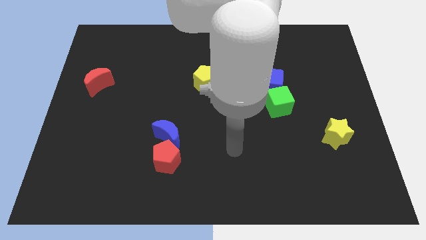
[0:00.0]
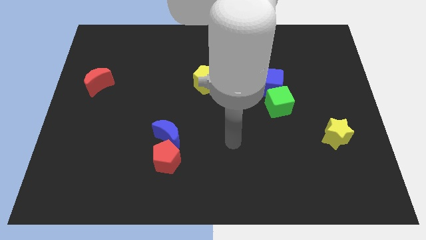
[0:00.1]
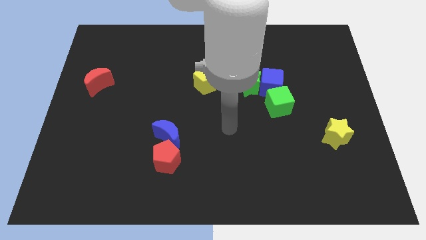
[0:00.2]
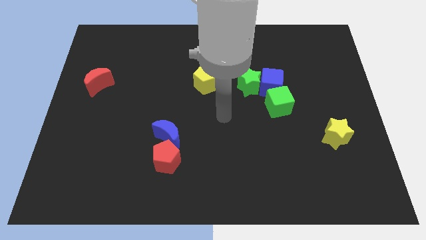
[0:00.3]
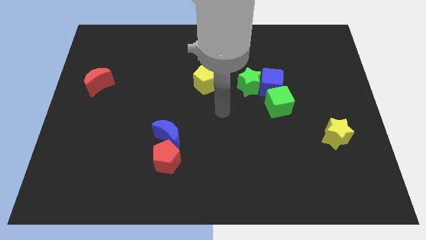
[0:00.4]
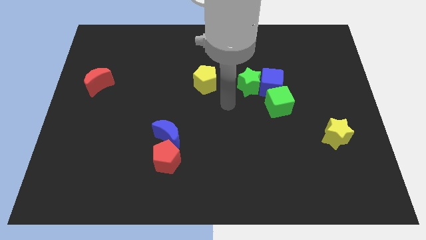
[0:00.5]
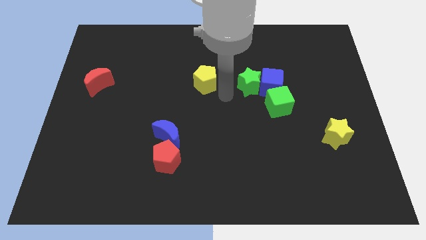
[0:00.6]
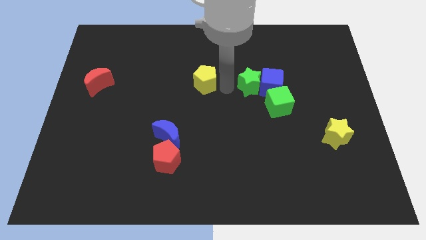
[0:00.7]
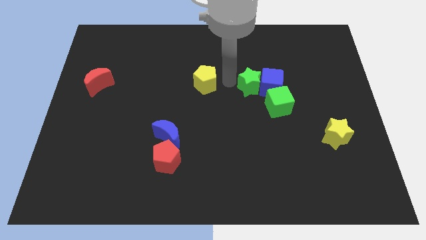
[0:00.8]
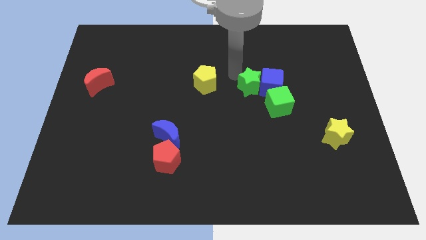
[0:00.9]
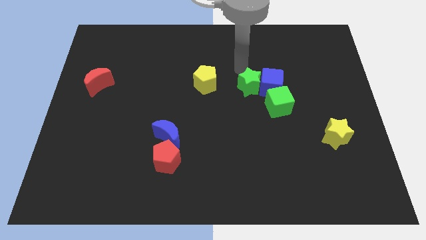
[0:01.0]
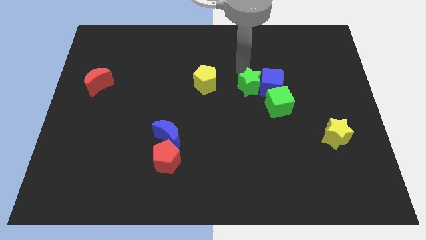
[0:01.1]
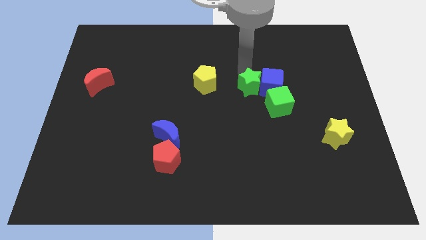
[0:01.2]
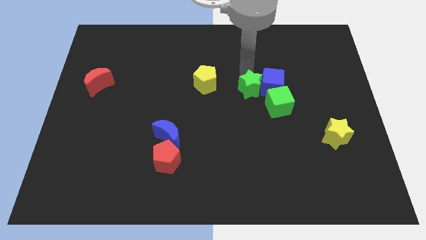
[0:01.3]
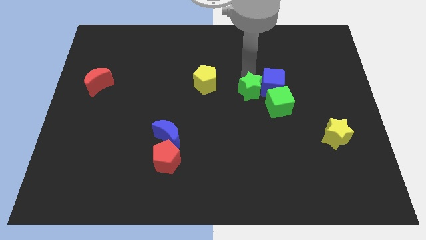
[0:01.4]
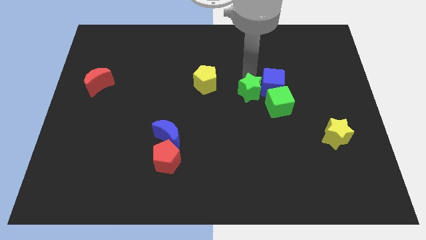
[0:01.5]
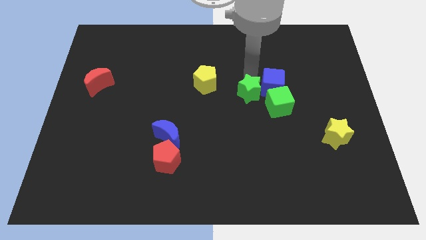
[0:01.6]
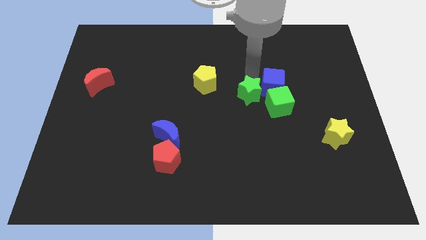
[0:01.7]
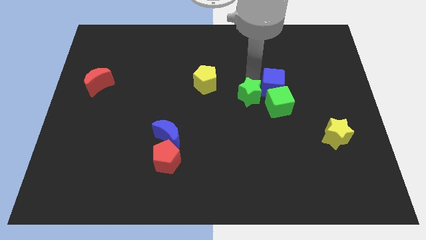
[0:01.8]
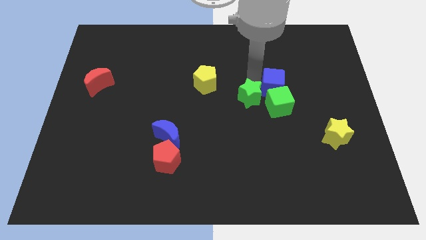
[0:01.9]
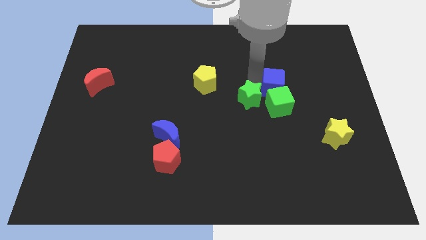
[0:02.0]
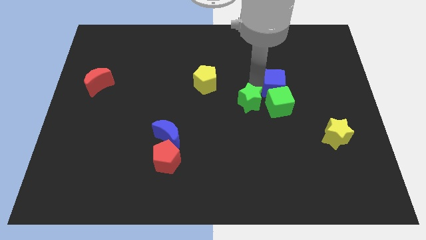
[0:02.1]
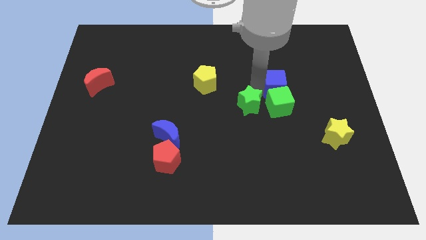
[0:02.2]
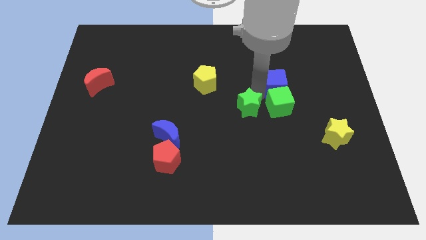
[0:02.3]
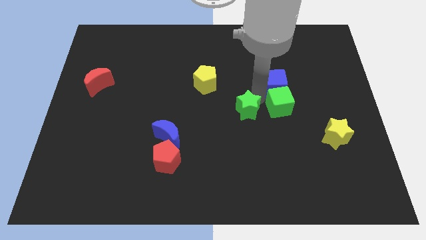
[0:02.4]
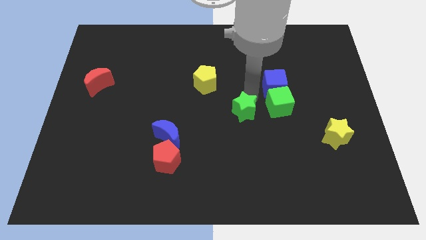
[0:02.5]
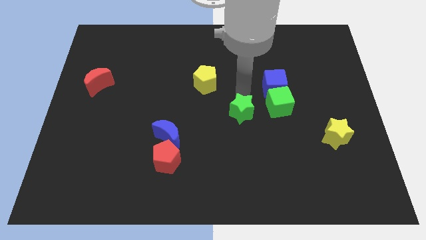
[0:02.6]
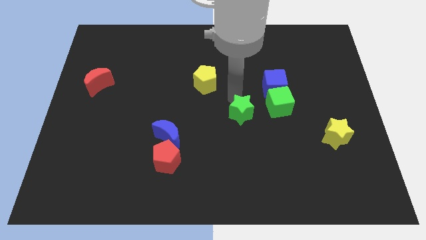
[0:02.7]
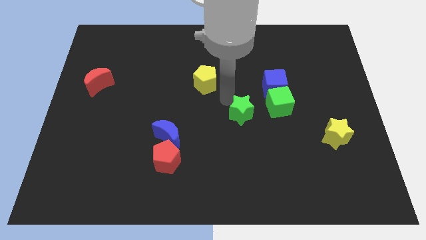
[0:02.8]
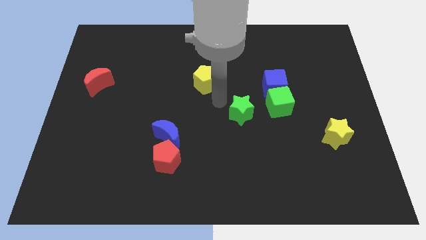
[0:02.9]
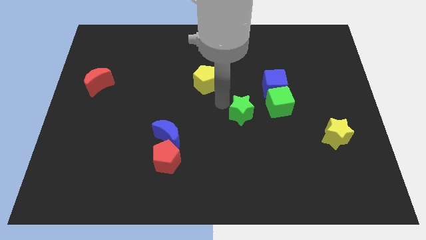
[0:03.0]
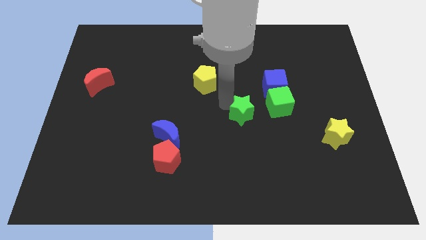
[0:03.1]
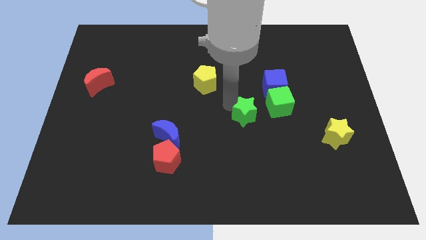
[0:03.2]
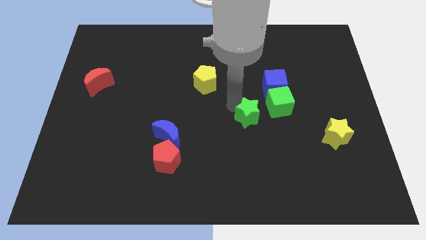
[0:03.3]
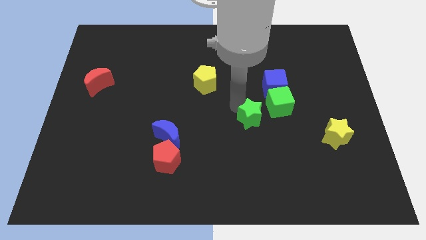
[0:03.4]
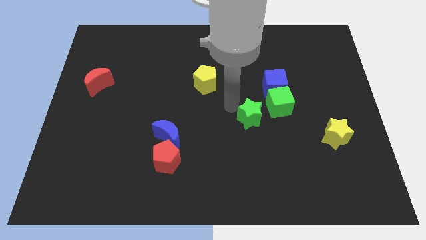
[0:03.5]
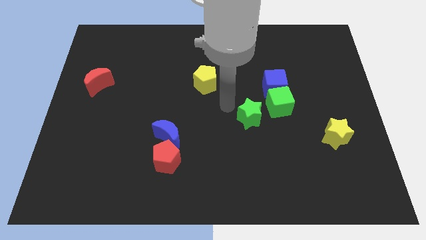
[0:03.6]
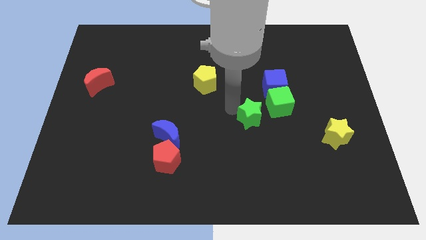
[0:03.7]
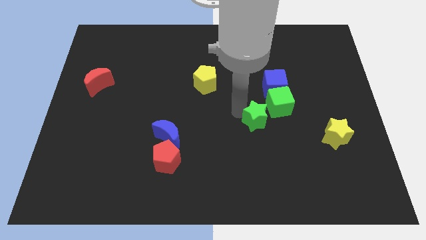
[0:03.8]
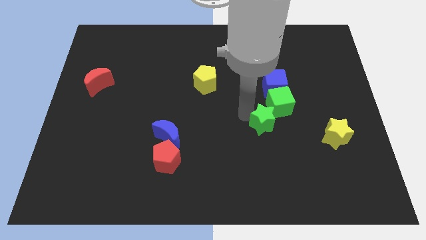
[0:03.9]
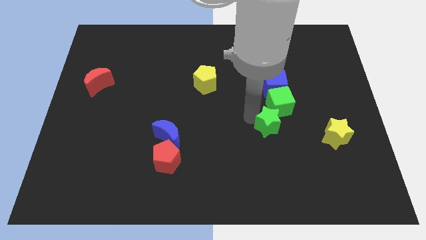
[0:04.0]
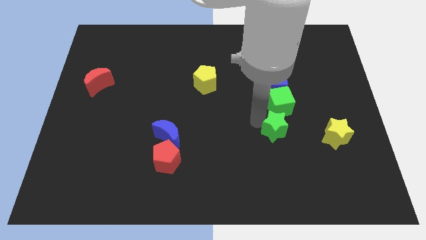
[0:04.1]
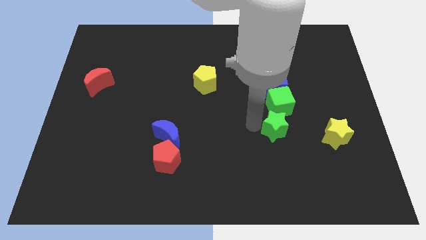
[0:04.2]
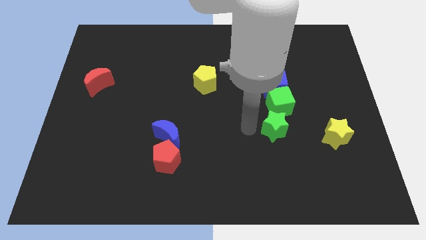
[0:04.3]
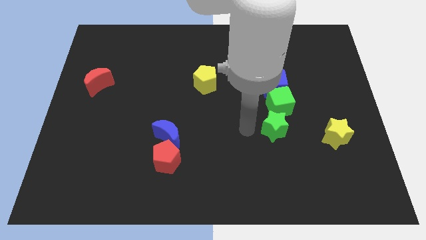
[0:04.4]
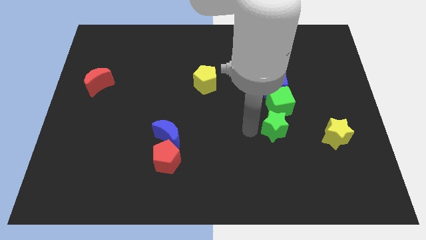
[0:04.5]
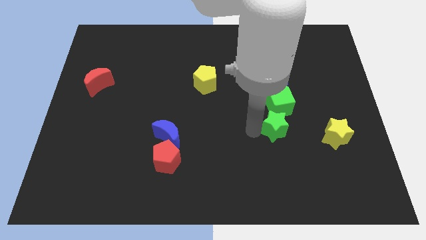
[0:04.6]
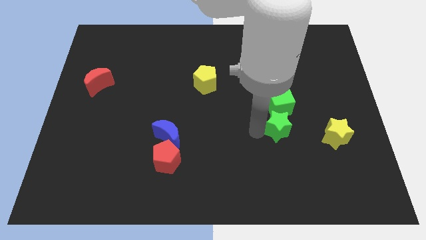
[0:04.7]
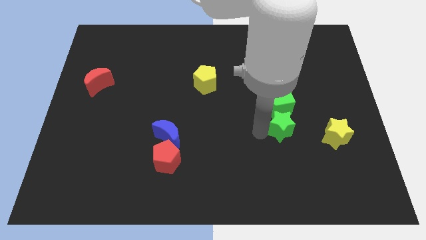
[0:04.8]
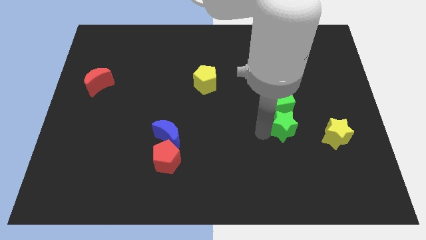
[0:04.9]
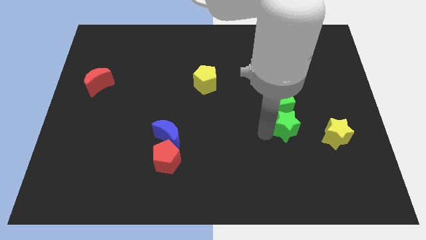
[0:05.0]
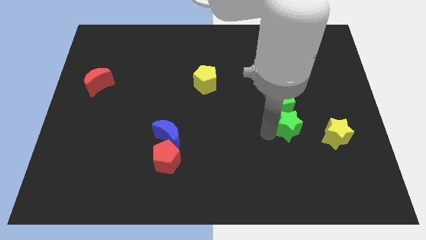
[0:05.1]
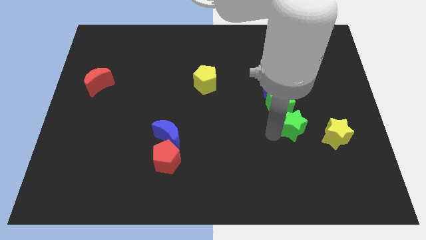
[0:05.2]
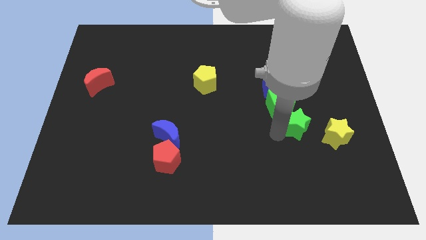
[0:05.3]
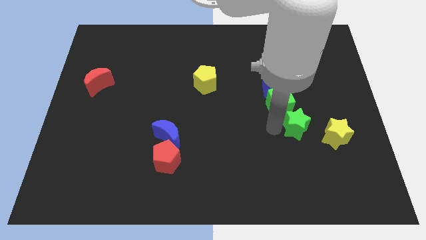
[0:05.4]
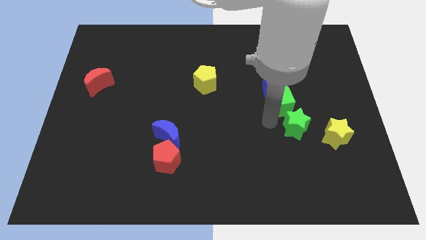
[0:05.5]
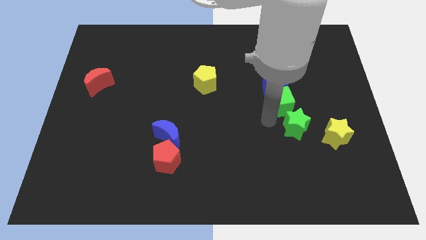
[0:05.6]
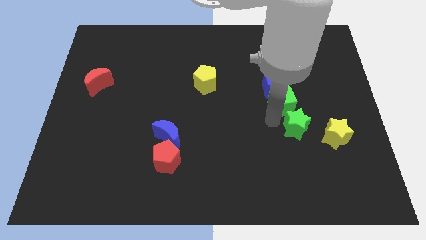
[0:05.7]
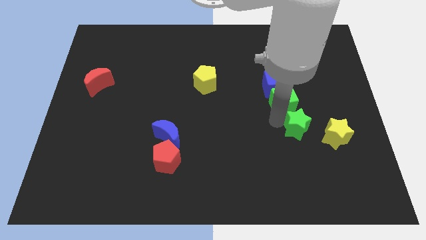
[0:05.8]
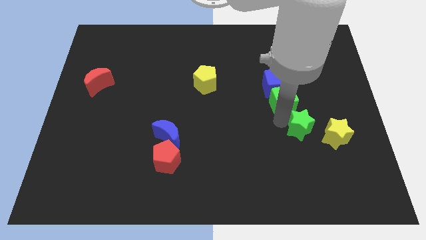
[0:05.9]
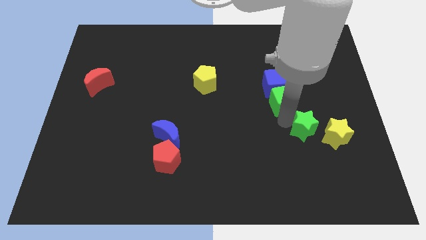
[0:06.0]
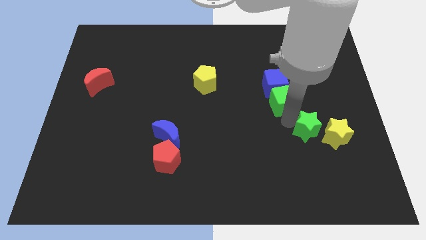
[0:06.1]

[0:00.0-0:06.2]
put the green star towards the yellow star

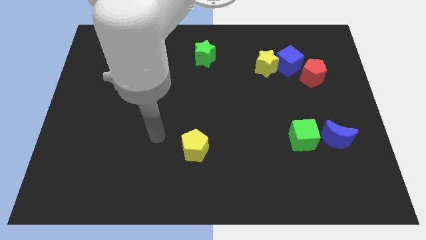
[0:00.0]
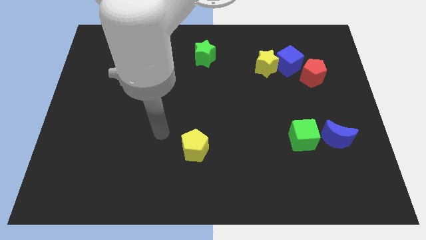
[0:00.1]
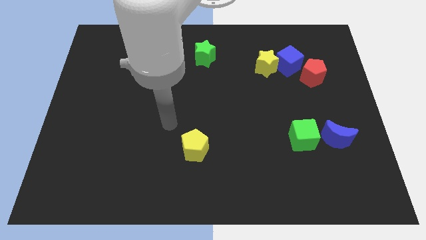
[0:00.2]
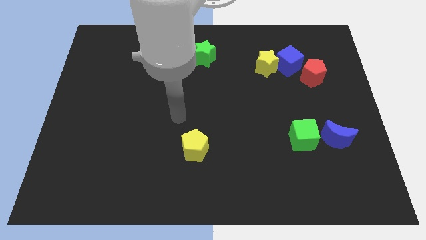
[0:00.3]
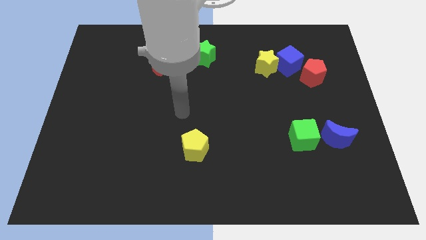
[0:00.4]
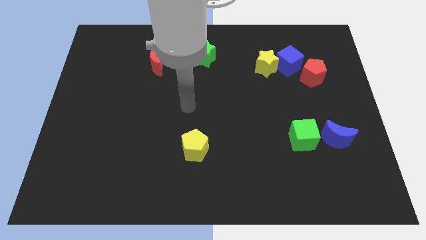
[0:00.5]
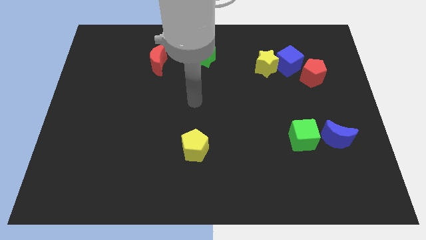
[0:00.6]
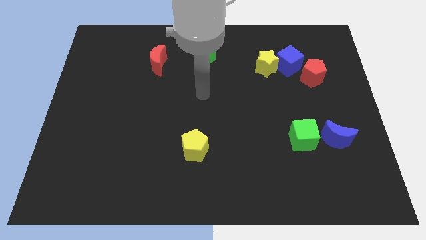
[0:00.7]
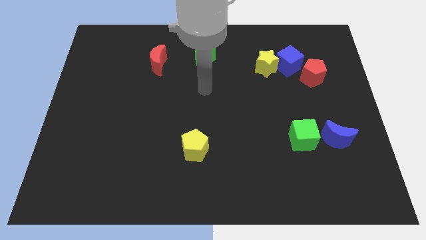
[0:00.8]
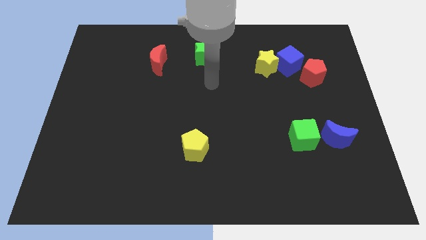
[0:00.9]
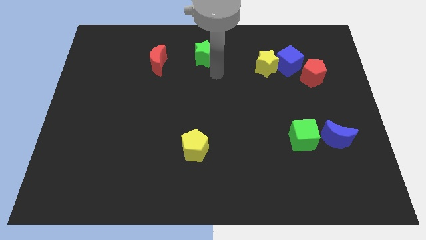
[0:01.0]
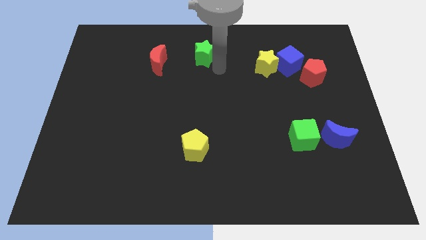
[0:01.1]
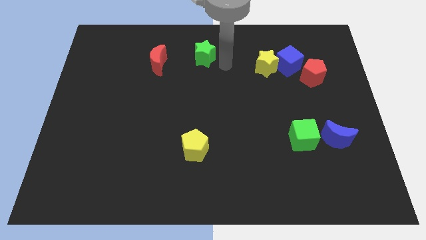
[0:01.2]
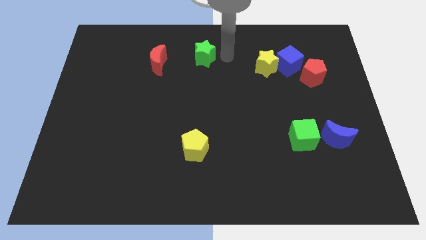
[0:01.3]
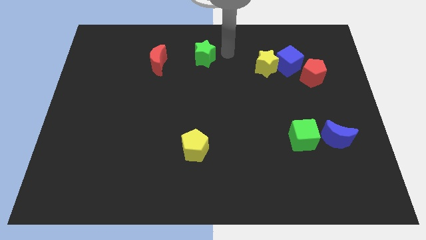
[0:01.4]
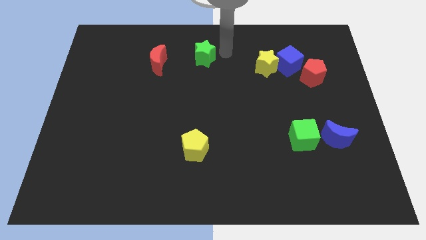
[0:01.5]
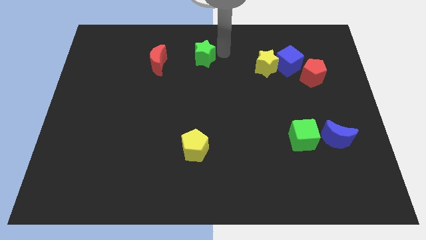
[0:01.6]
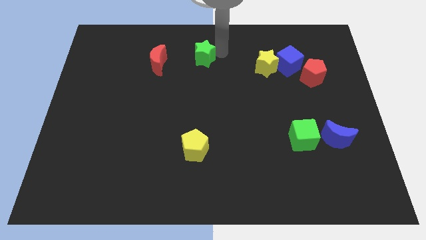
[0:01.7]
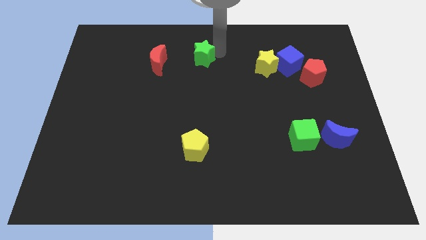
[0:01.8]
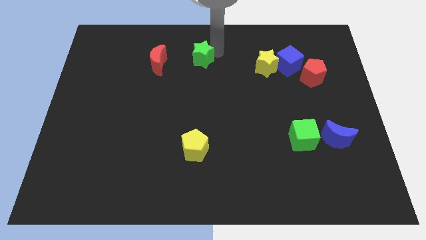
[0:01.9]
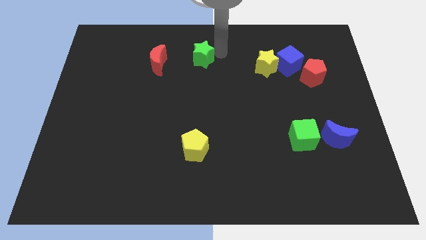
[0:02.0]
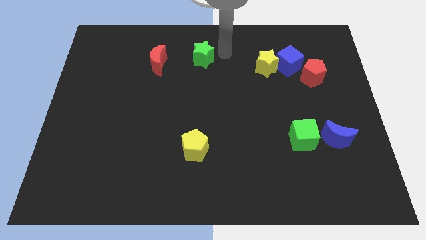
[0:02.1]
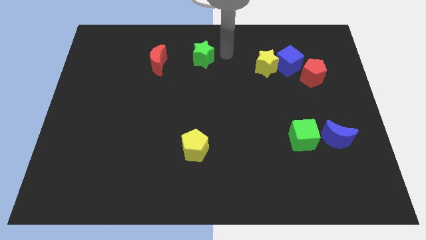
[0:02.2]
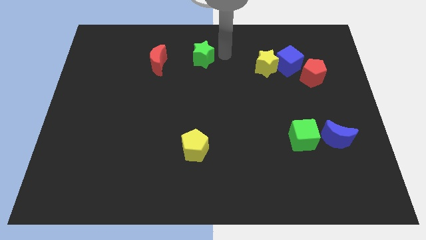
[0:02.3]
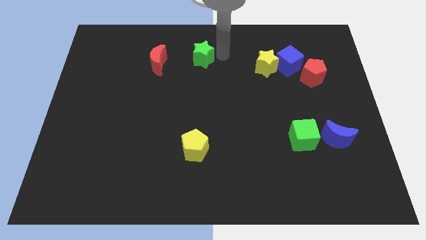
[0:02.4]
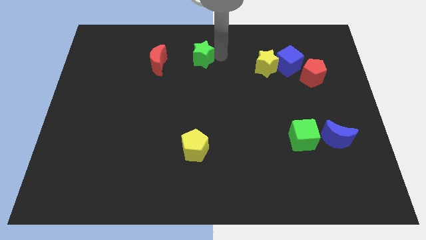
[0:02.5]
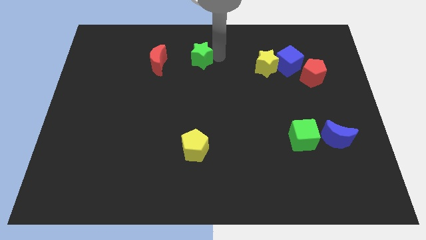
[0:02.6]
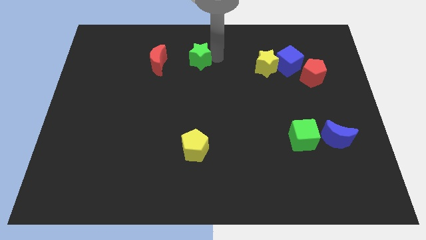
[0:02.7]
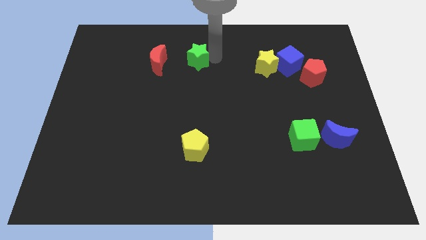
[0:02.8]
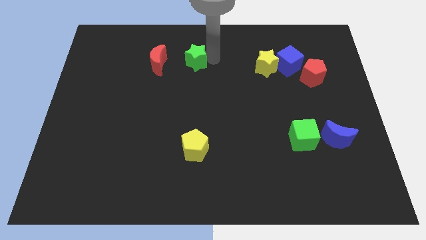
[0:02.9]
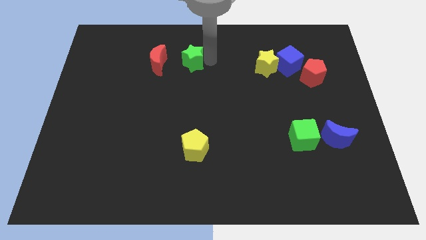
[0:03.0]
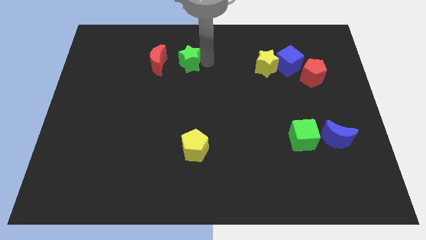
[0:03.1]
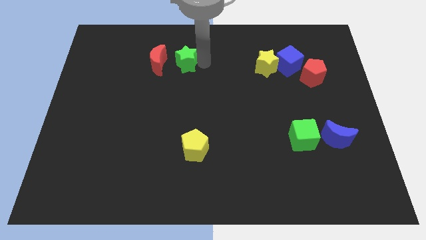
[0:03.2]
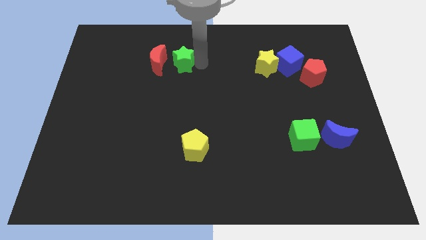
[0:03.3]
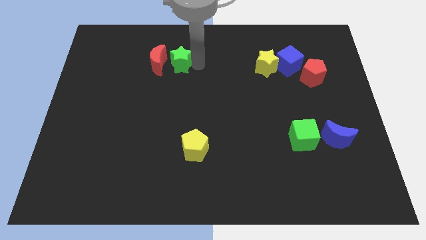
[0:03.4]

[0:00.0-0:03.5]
put the green star to the red moon
